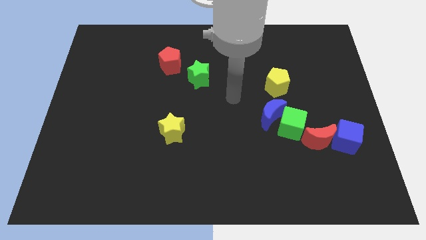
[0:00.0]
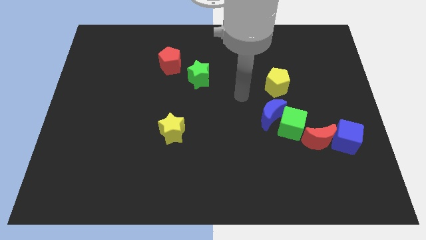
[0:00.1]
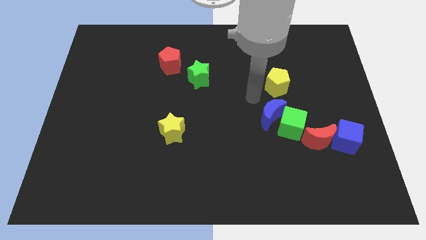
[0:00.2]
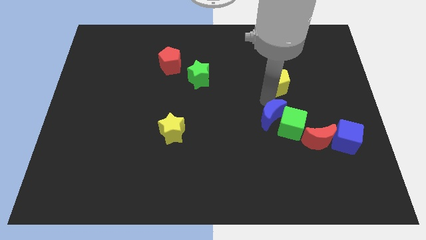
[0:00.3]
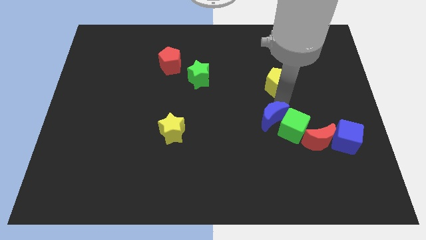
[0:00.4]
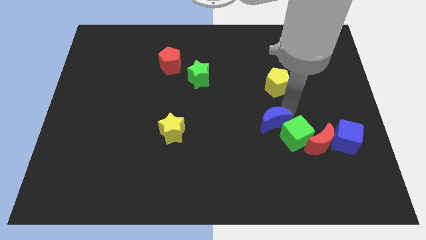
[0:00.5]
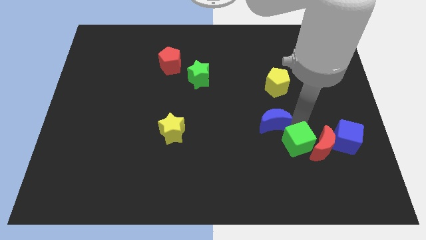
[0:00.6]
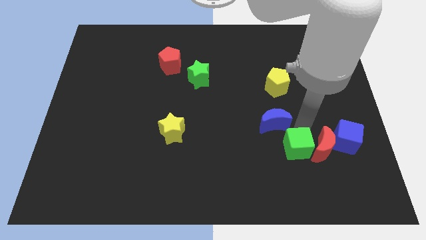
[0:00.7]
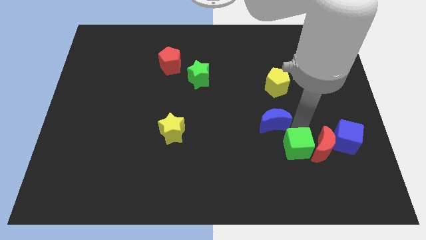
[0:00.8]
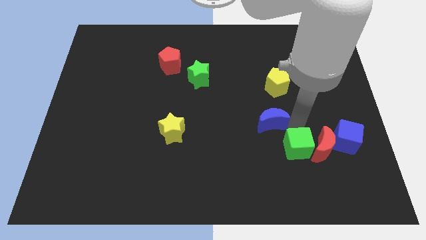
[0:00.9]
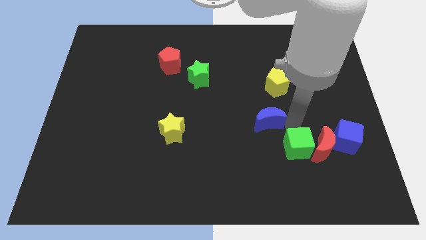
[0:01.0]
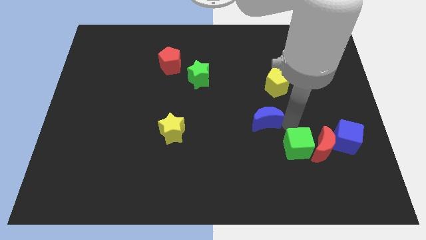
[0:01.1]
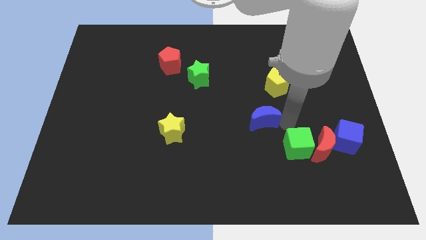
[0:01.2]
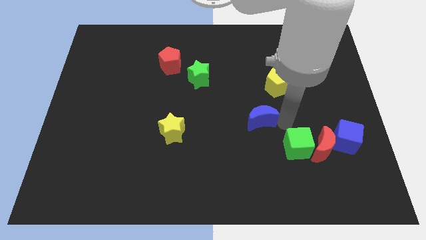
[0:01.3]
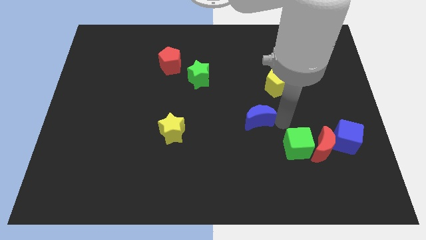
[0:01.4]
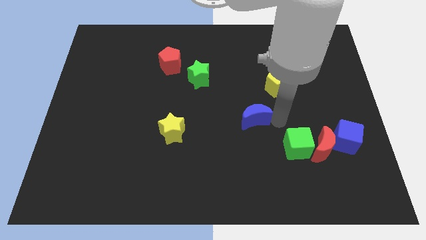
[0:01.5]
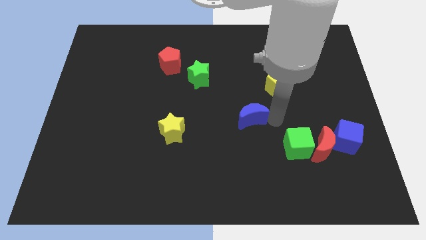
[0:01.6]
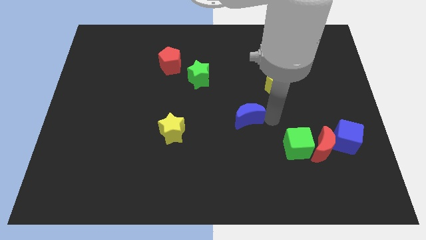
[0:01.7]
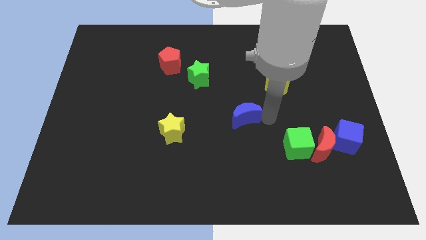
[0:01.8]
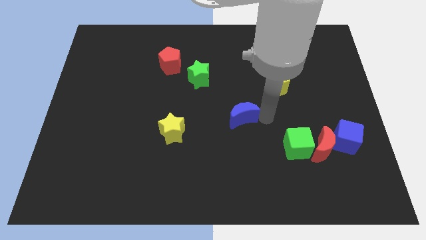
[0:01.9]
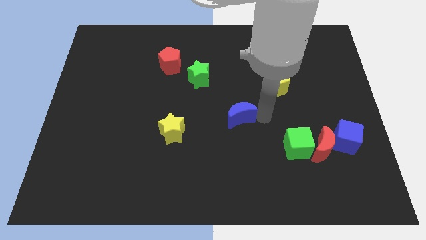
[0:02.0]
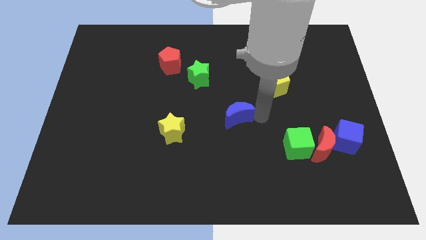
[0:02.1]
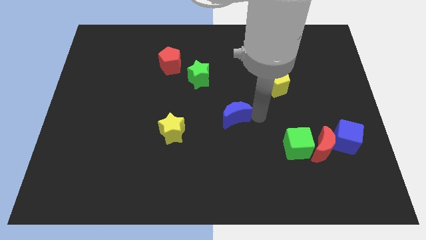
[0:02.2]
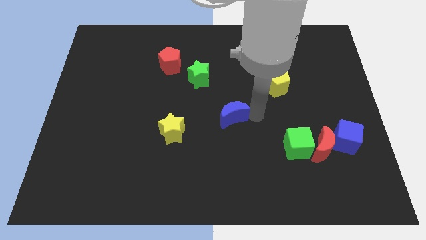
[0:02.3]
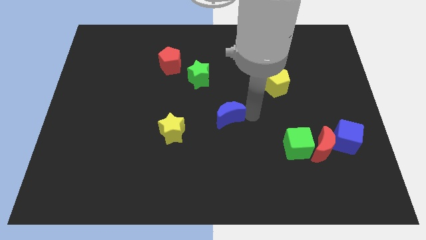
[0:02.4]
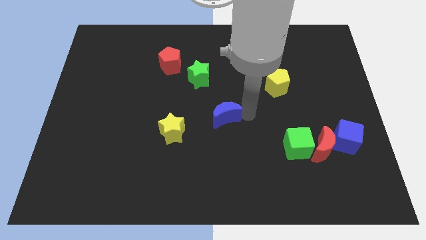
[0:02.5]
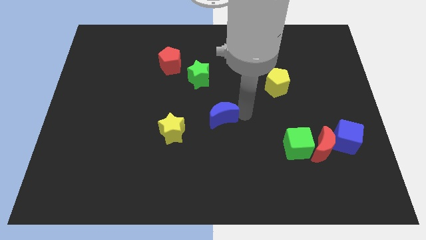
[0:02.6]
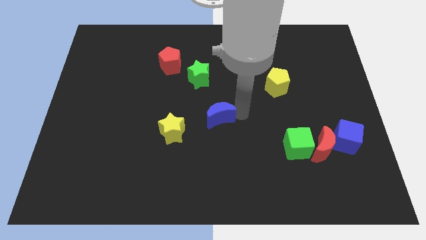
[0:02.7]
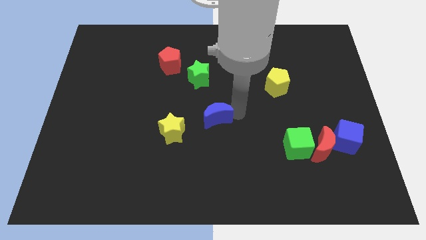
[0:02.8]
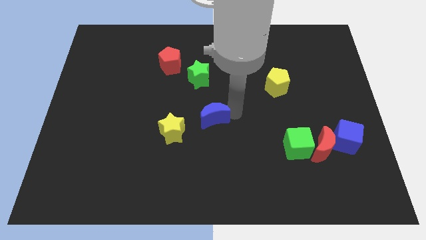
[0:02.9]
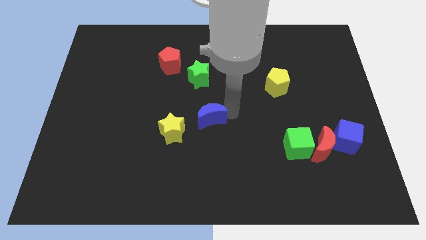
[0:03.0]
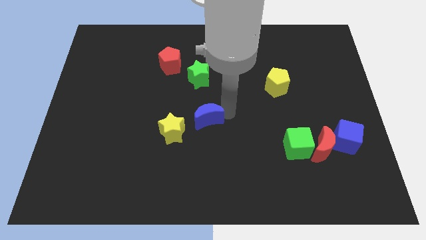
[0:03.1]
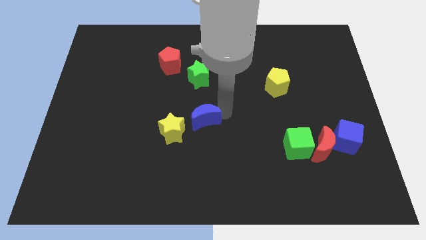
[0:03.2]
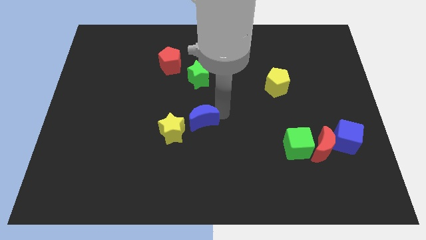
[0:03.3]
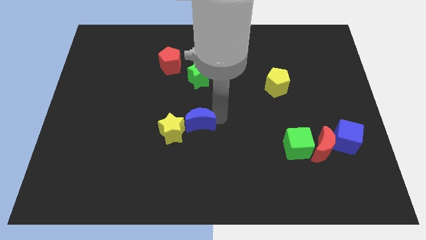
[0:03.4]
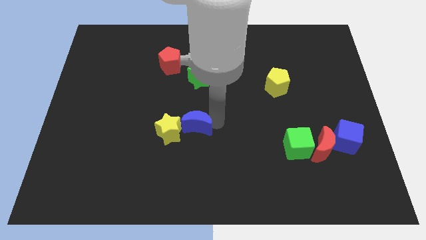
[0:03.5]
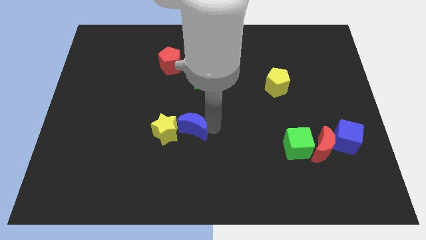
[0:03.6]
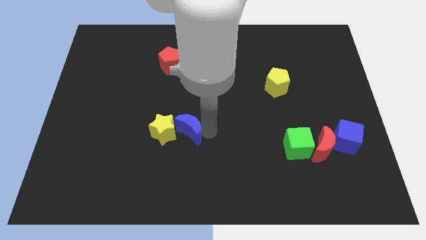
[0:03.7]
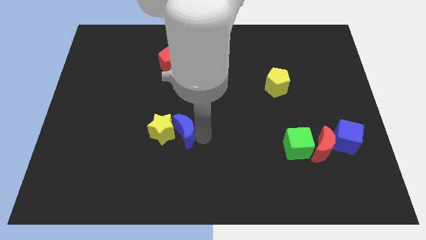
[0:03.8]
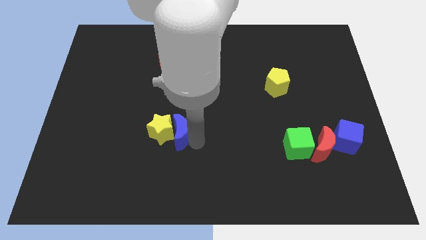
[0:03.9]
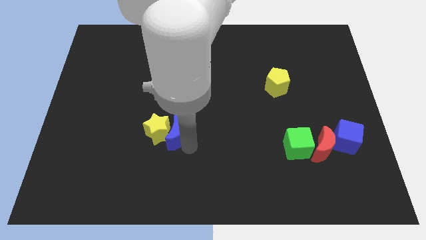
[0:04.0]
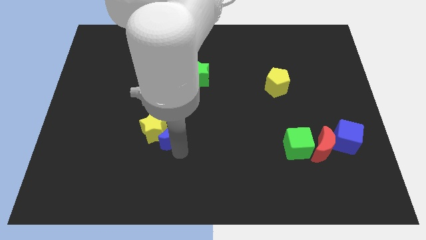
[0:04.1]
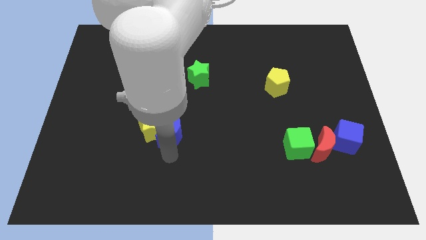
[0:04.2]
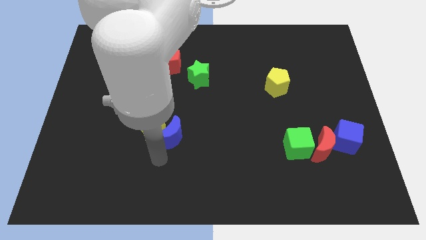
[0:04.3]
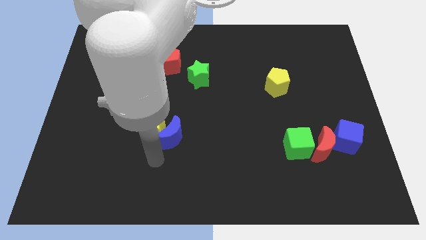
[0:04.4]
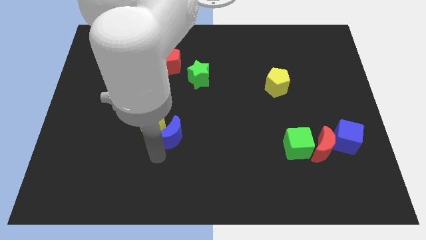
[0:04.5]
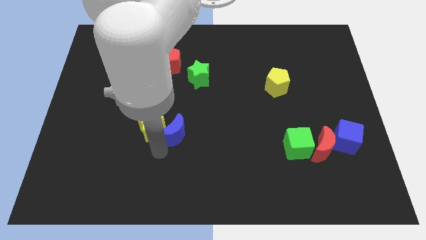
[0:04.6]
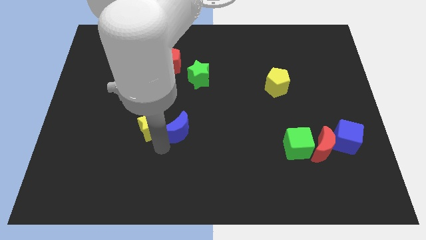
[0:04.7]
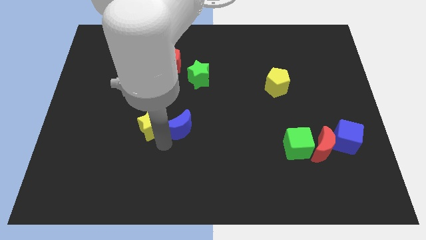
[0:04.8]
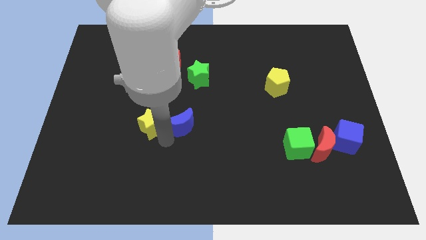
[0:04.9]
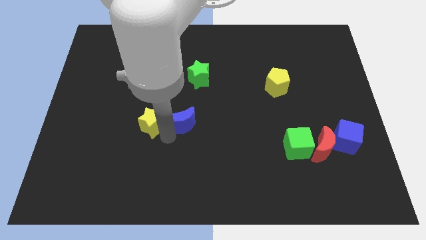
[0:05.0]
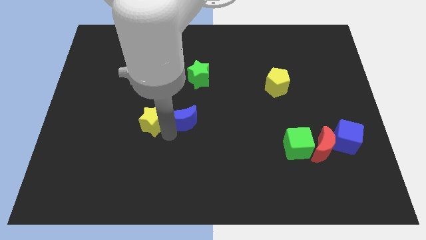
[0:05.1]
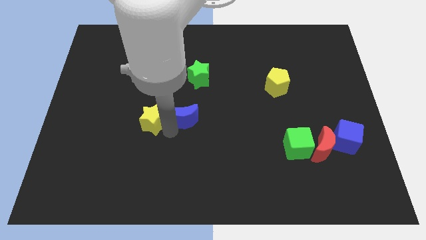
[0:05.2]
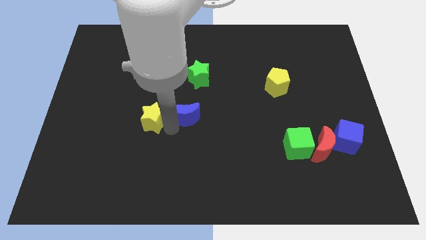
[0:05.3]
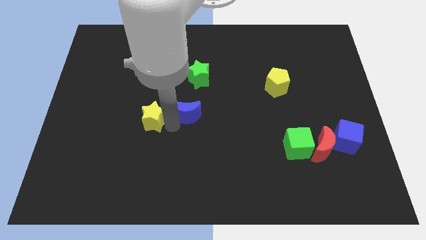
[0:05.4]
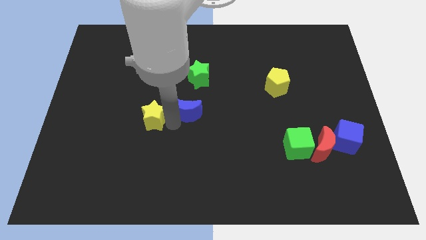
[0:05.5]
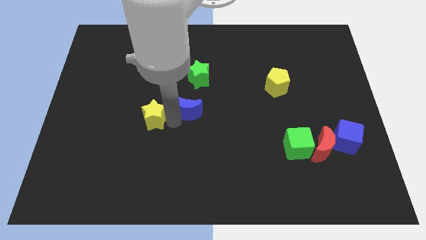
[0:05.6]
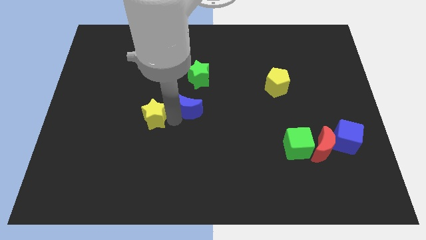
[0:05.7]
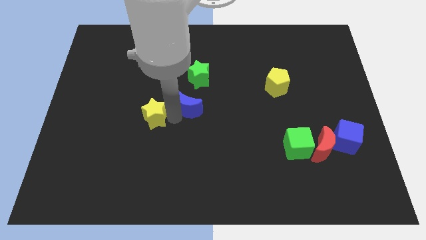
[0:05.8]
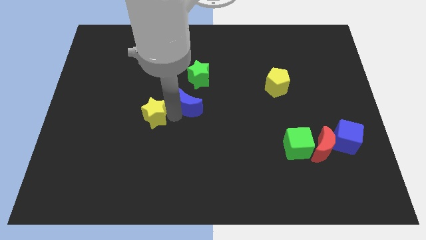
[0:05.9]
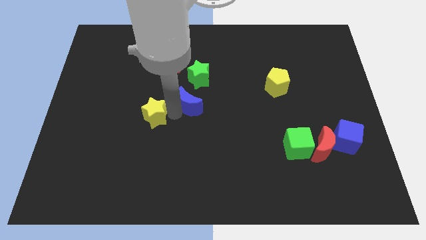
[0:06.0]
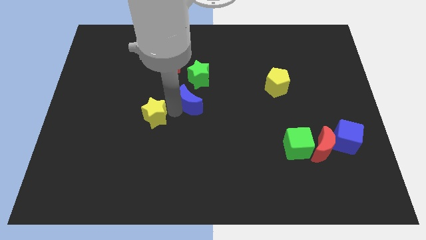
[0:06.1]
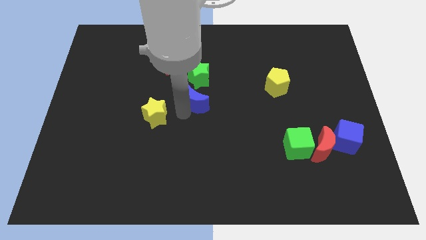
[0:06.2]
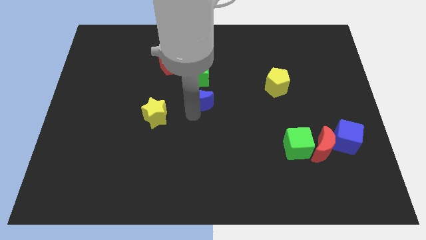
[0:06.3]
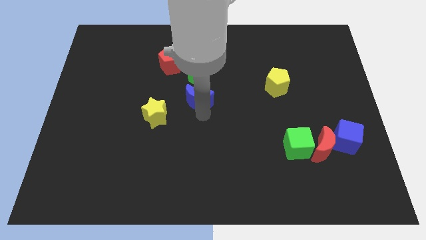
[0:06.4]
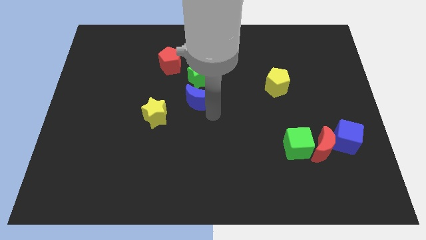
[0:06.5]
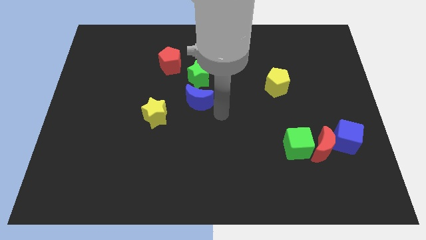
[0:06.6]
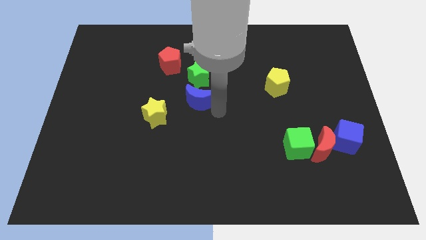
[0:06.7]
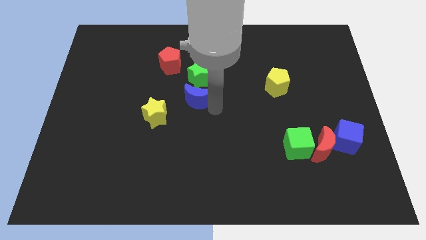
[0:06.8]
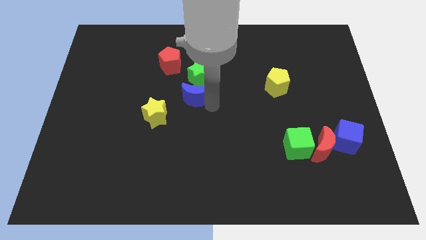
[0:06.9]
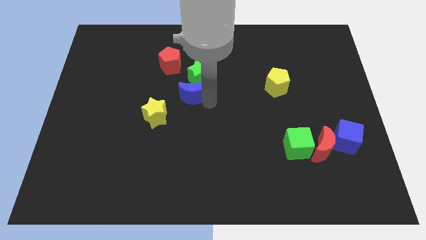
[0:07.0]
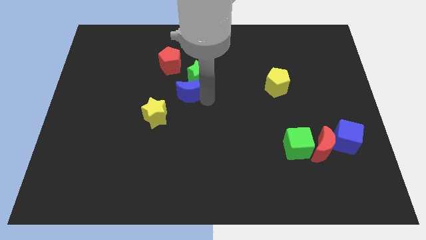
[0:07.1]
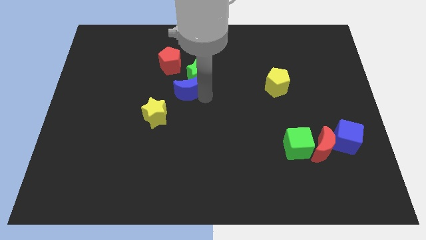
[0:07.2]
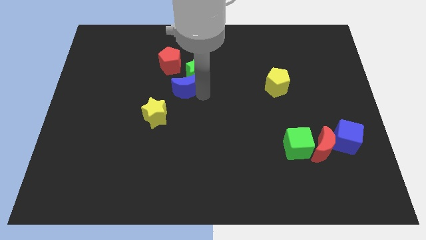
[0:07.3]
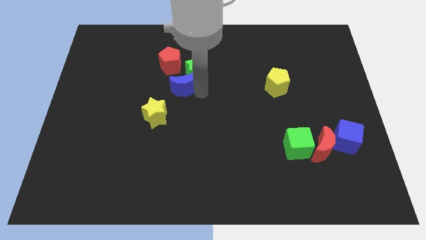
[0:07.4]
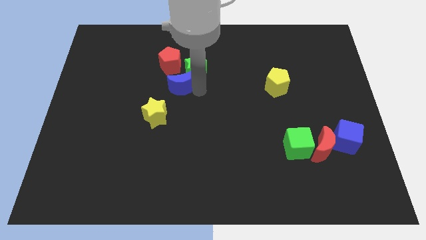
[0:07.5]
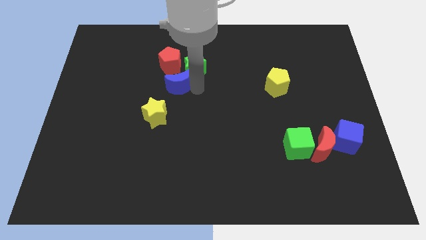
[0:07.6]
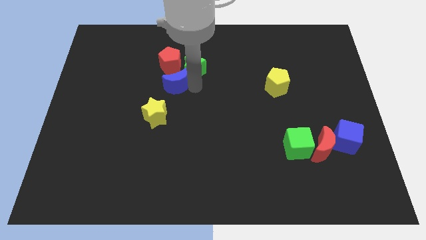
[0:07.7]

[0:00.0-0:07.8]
move the blue moon to the top of the yellow star
